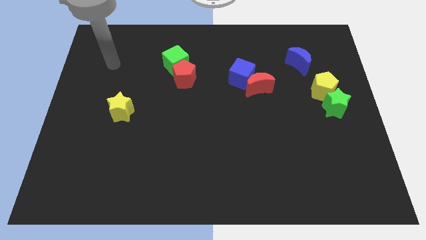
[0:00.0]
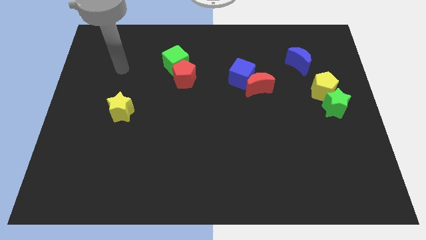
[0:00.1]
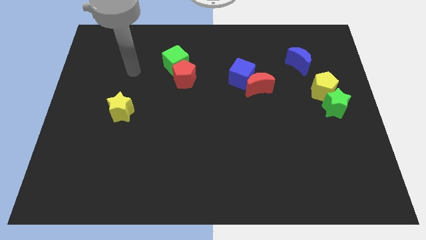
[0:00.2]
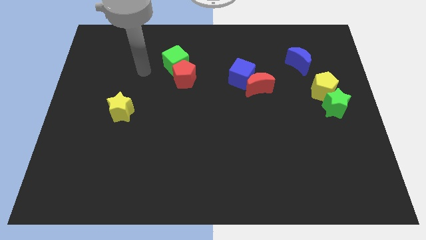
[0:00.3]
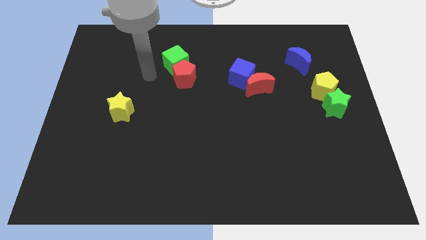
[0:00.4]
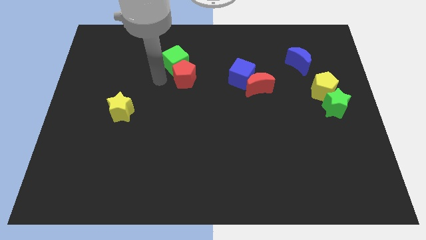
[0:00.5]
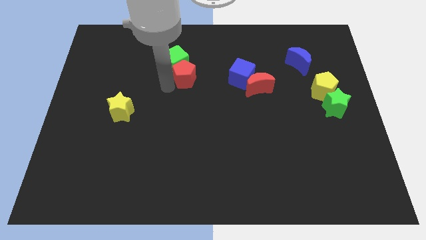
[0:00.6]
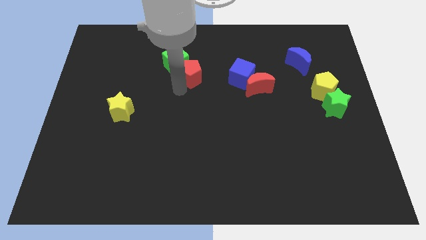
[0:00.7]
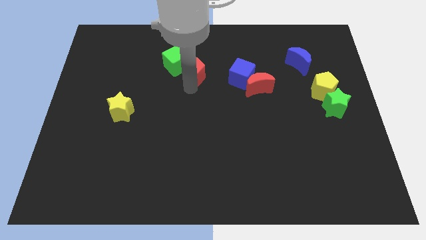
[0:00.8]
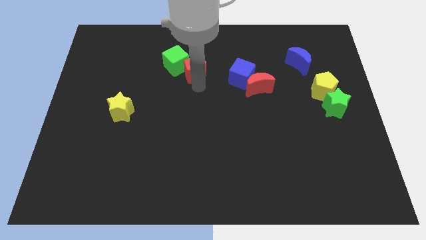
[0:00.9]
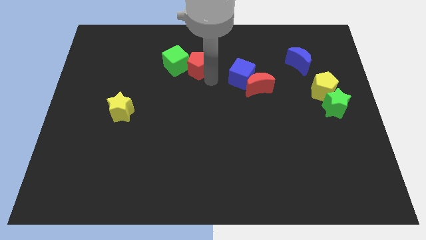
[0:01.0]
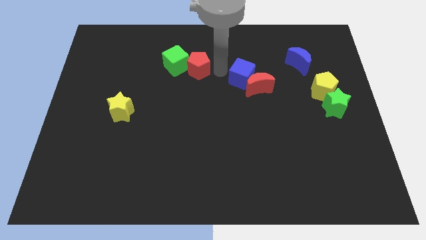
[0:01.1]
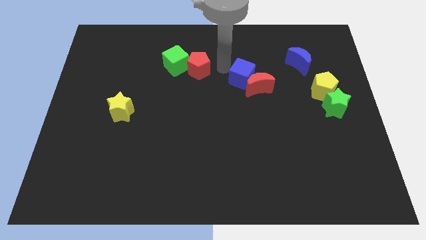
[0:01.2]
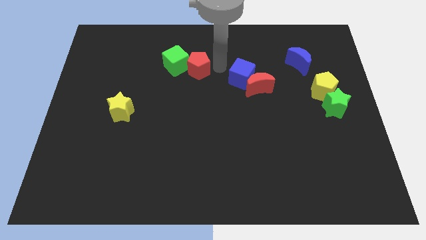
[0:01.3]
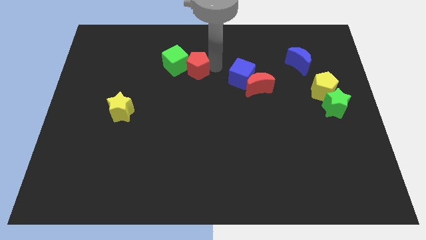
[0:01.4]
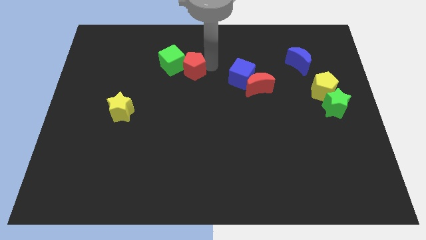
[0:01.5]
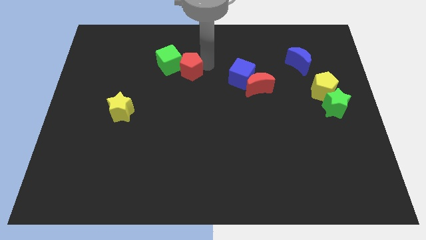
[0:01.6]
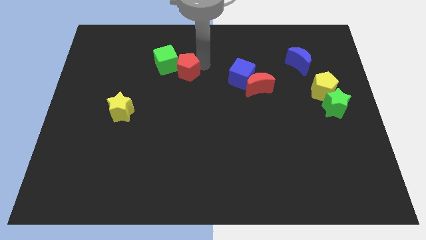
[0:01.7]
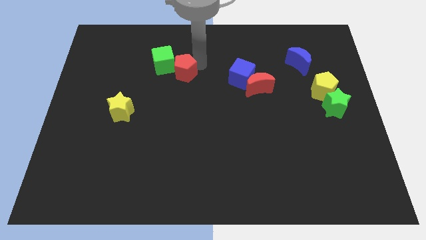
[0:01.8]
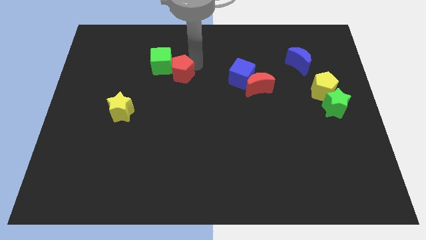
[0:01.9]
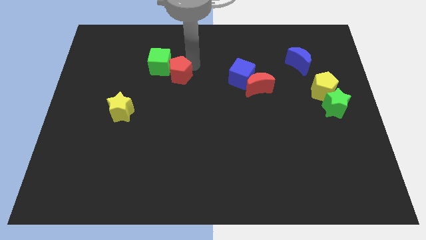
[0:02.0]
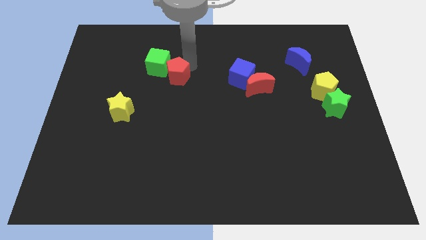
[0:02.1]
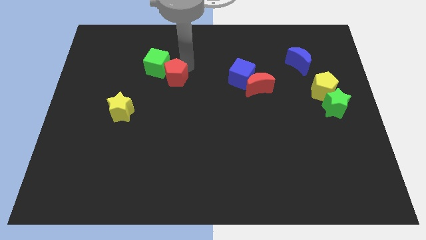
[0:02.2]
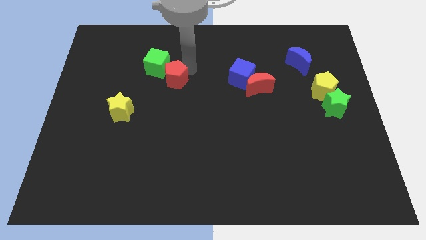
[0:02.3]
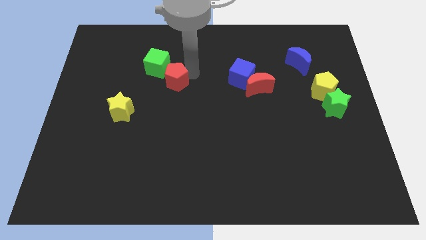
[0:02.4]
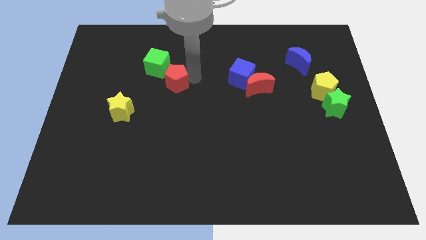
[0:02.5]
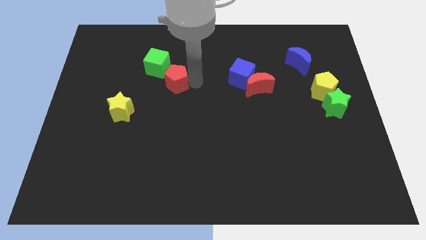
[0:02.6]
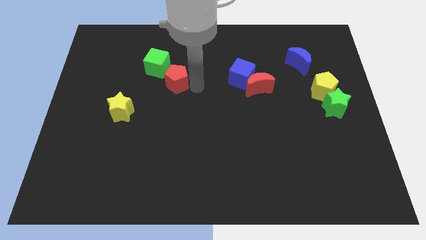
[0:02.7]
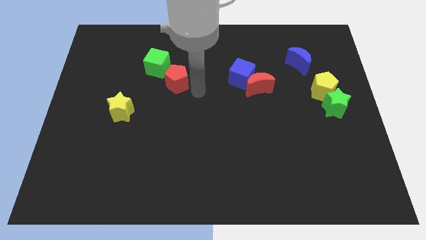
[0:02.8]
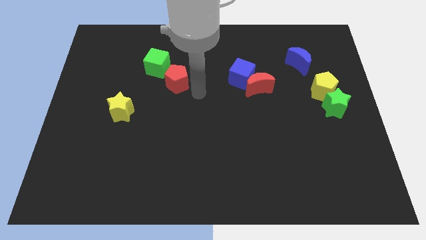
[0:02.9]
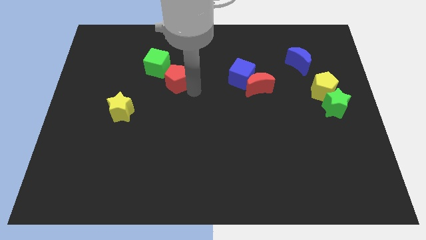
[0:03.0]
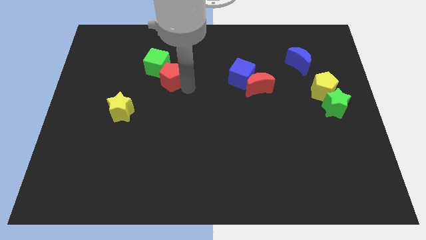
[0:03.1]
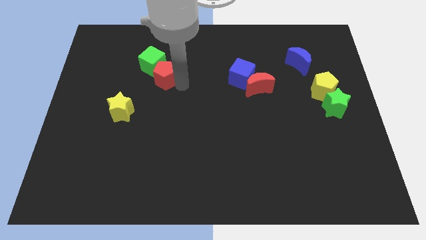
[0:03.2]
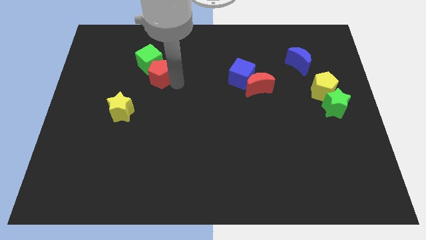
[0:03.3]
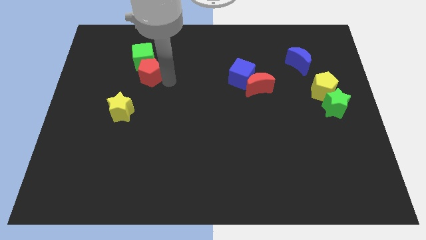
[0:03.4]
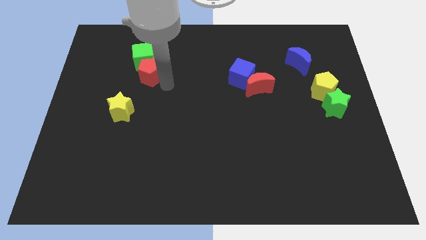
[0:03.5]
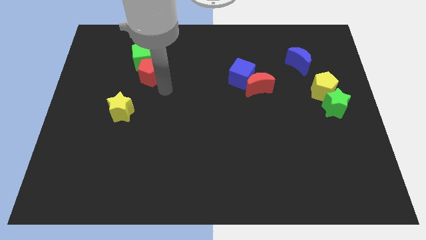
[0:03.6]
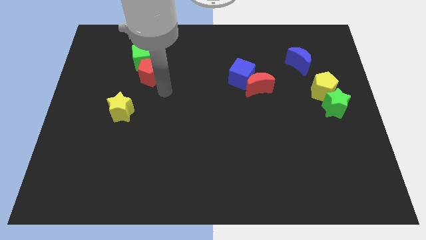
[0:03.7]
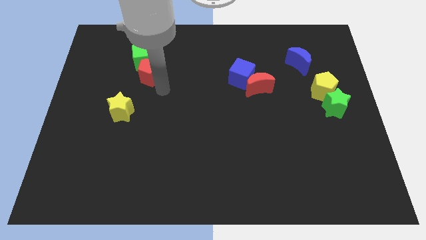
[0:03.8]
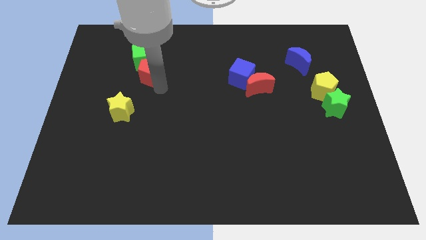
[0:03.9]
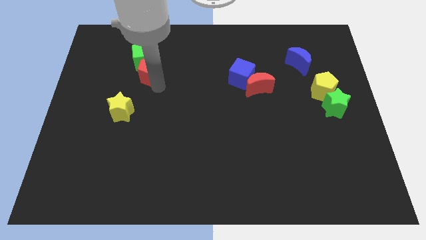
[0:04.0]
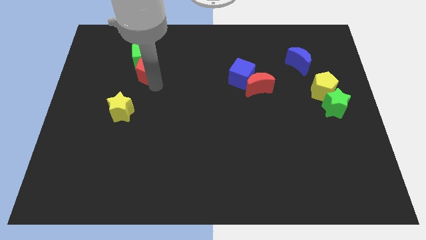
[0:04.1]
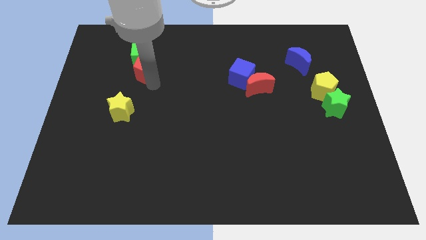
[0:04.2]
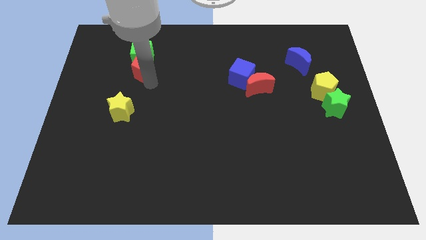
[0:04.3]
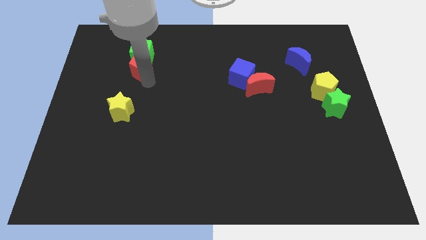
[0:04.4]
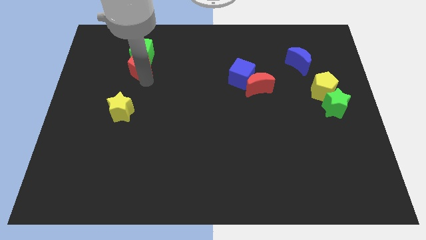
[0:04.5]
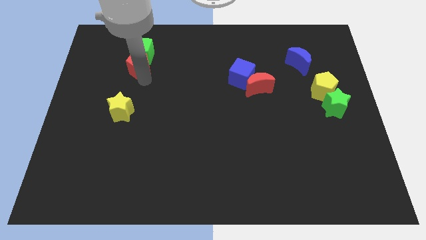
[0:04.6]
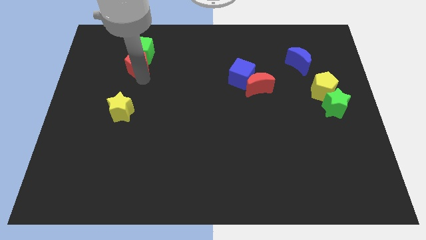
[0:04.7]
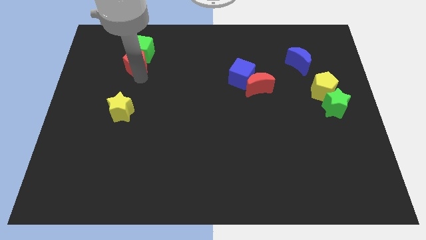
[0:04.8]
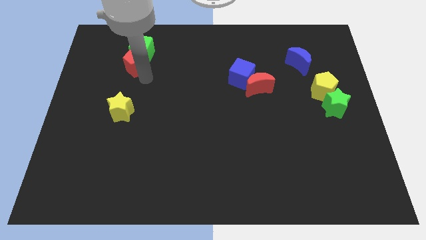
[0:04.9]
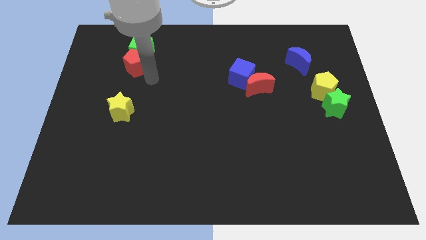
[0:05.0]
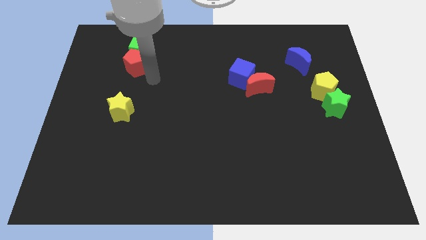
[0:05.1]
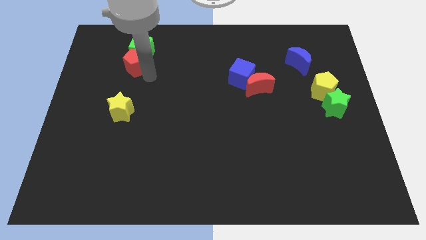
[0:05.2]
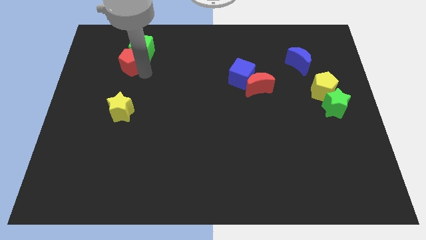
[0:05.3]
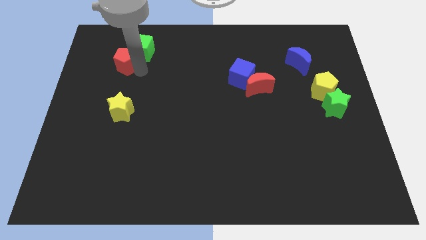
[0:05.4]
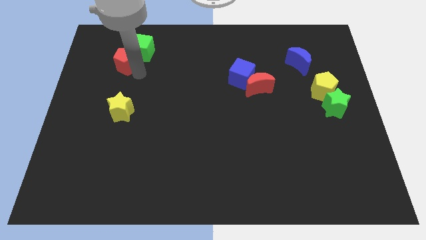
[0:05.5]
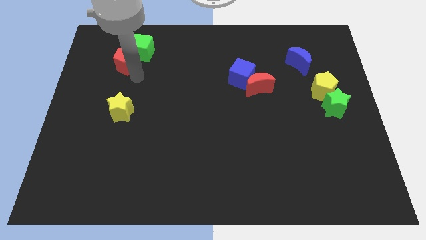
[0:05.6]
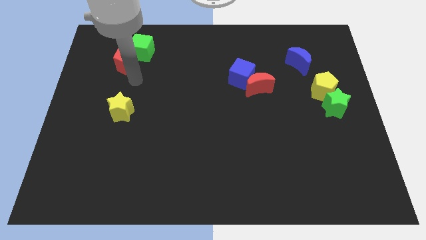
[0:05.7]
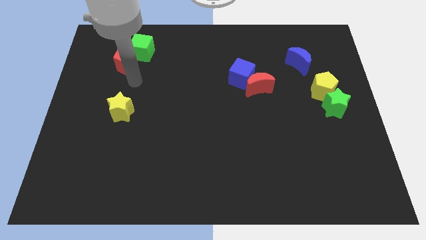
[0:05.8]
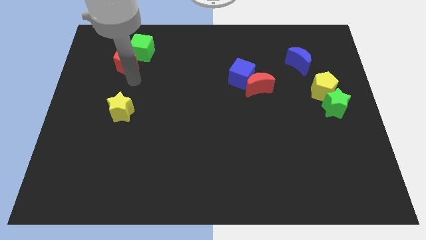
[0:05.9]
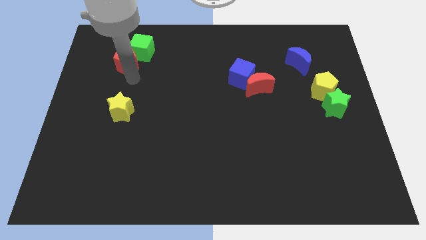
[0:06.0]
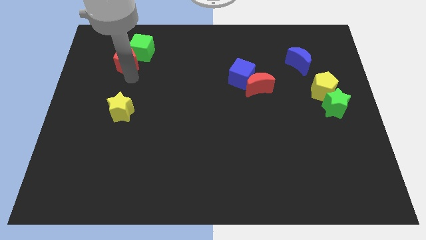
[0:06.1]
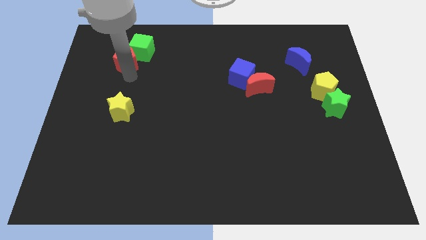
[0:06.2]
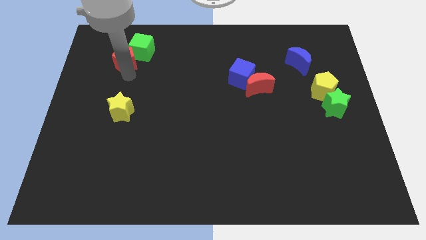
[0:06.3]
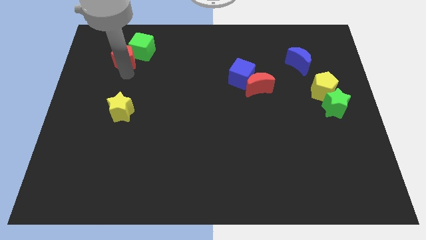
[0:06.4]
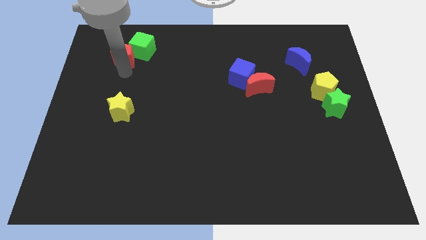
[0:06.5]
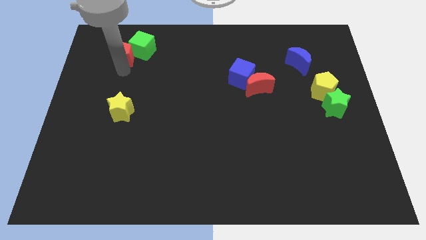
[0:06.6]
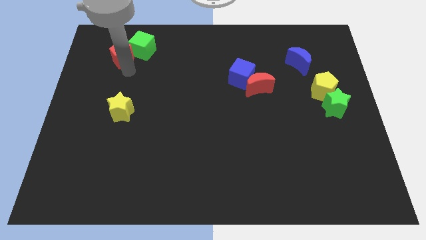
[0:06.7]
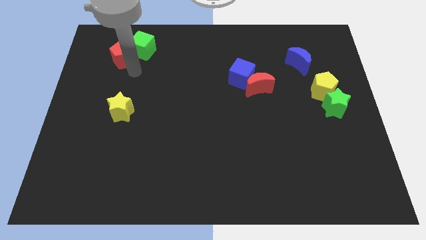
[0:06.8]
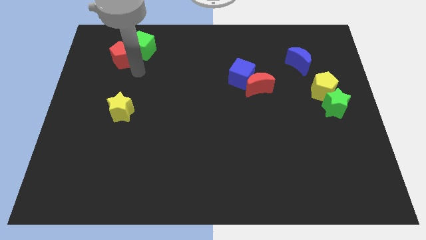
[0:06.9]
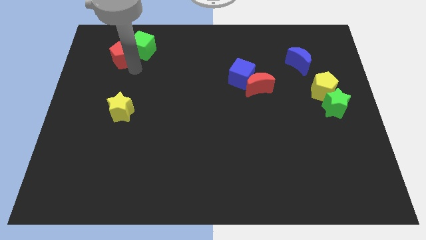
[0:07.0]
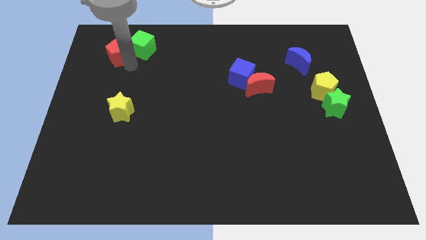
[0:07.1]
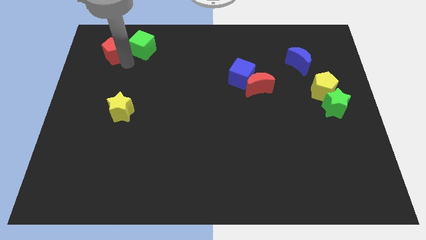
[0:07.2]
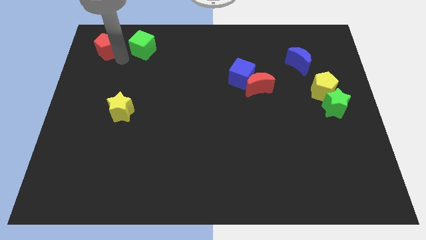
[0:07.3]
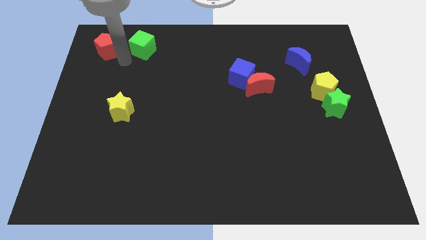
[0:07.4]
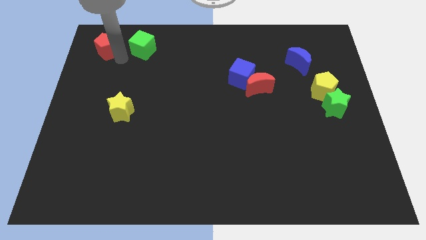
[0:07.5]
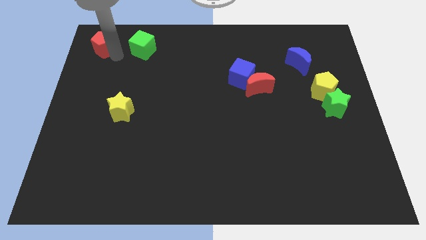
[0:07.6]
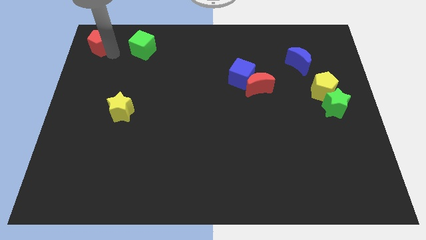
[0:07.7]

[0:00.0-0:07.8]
push the red pentagon to the top left corner
